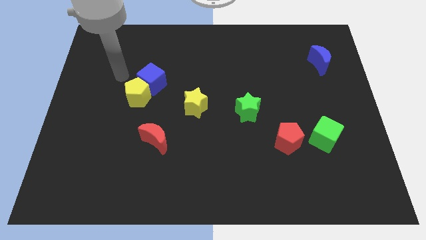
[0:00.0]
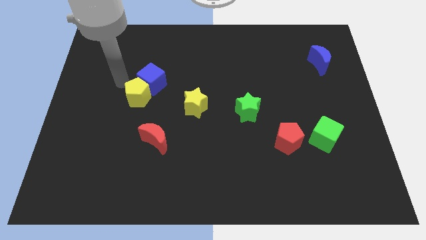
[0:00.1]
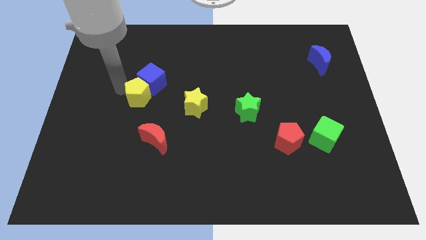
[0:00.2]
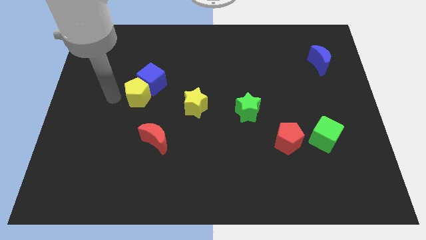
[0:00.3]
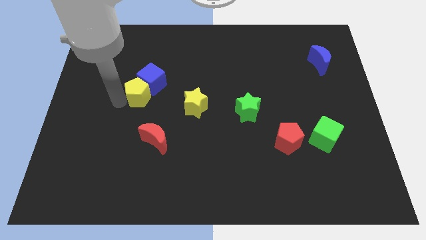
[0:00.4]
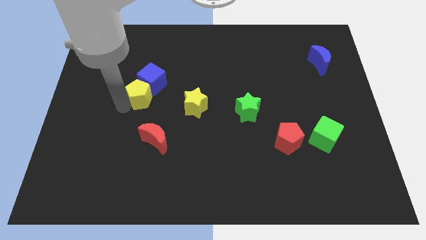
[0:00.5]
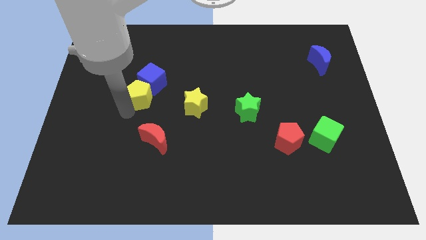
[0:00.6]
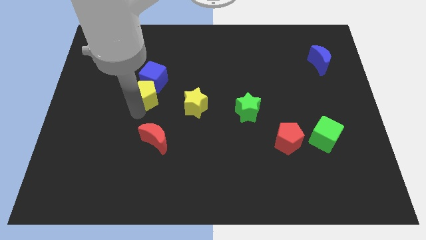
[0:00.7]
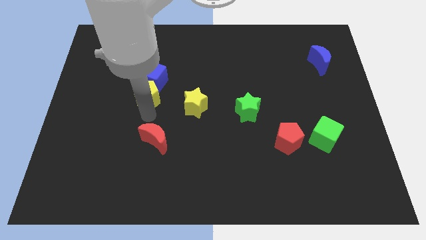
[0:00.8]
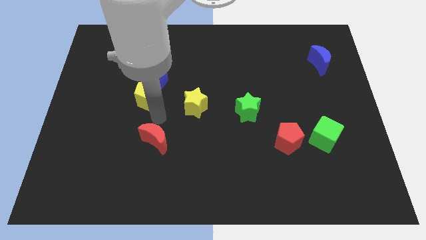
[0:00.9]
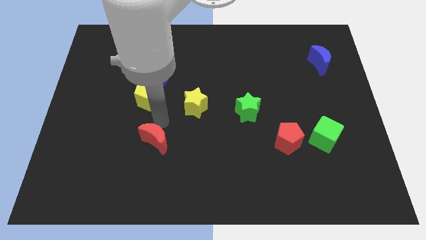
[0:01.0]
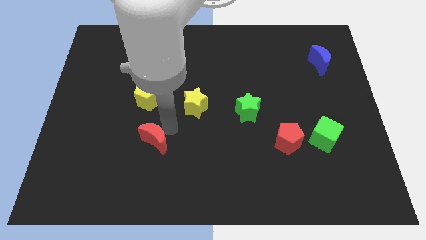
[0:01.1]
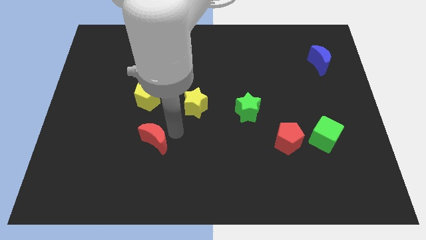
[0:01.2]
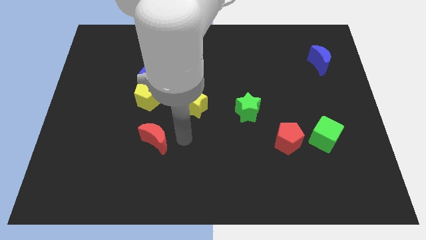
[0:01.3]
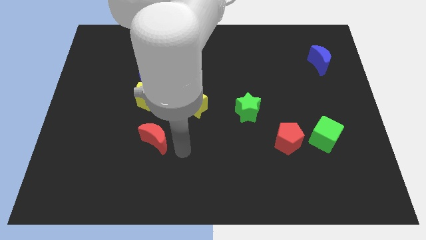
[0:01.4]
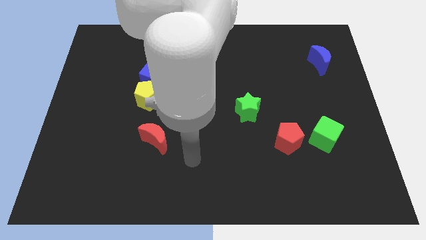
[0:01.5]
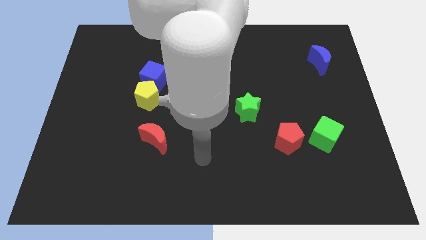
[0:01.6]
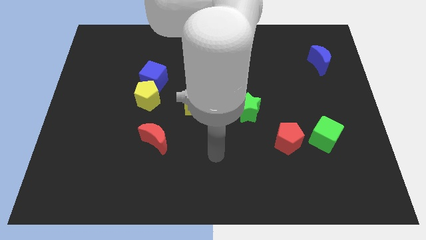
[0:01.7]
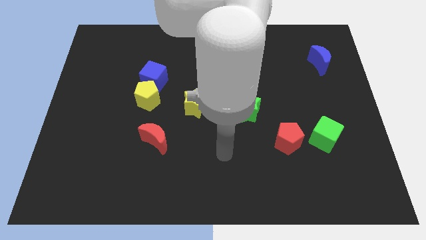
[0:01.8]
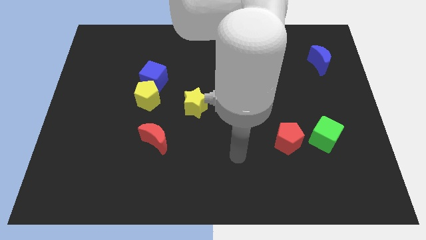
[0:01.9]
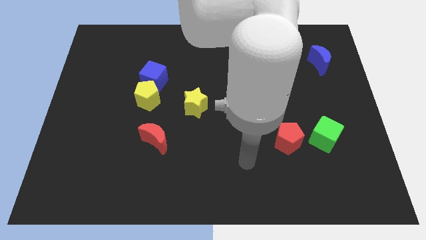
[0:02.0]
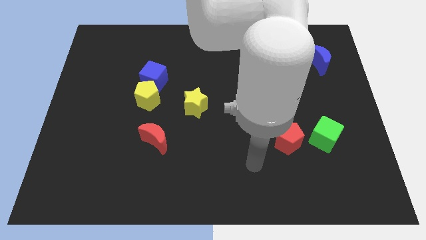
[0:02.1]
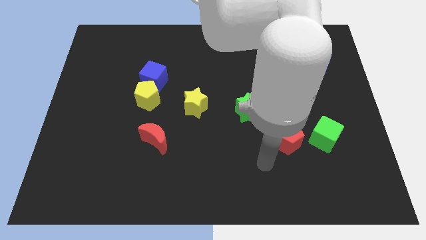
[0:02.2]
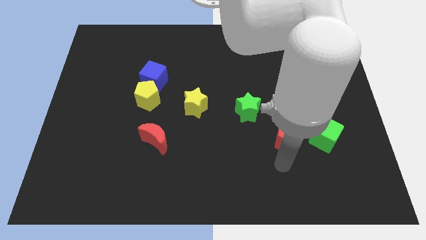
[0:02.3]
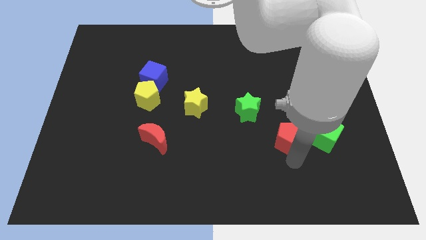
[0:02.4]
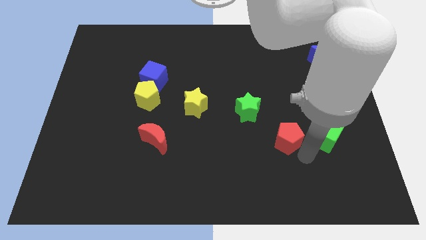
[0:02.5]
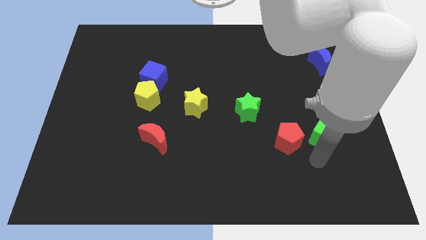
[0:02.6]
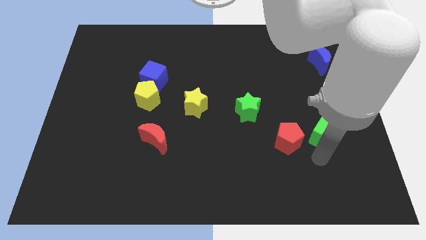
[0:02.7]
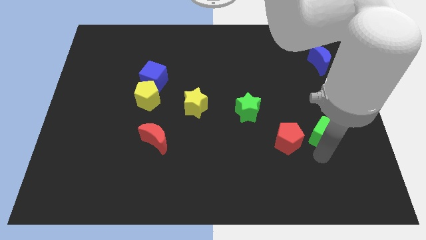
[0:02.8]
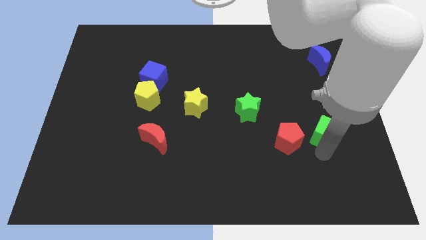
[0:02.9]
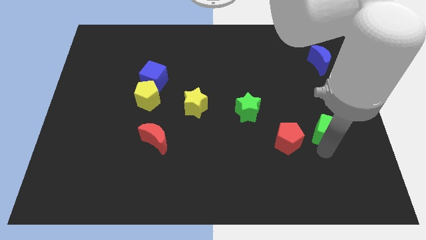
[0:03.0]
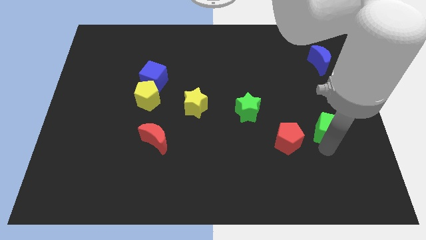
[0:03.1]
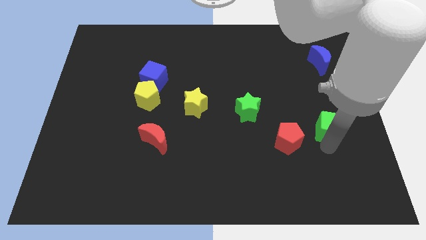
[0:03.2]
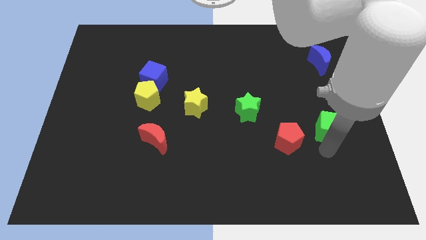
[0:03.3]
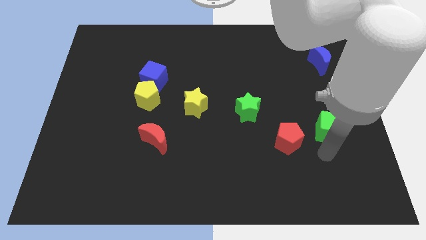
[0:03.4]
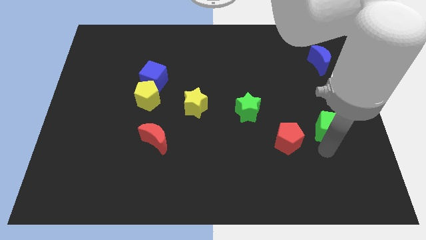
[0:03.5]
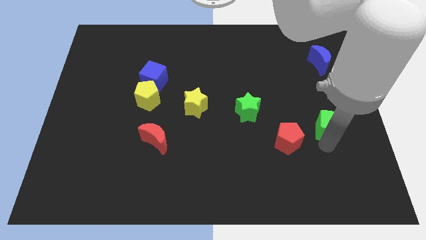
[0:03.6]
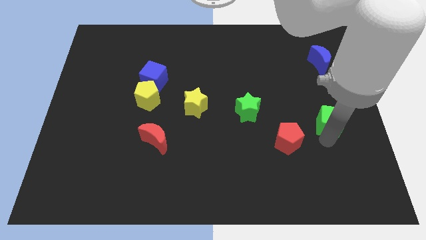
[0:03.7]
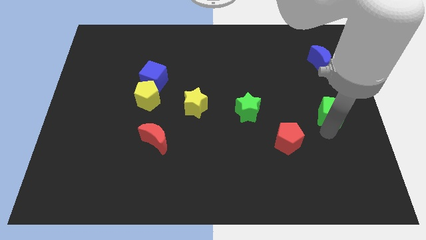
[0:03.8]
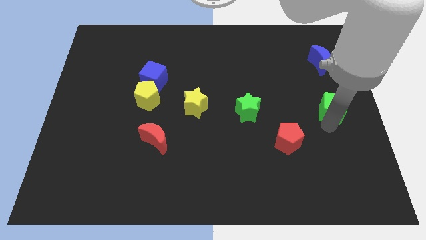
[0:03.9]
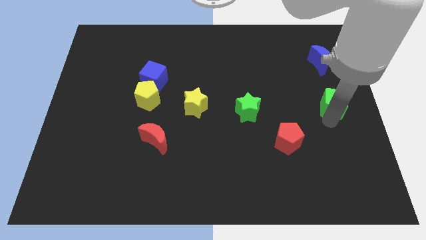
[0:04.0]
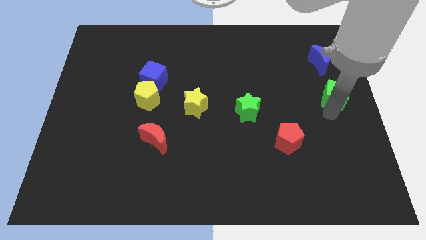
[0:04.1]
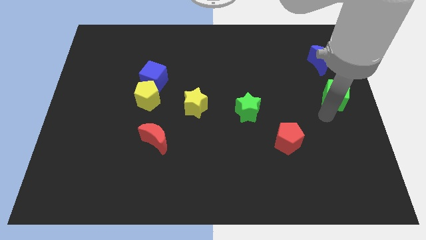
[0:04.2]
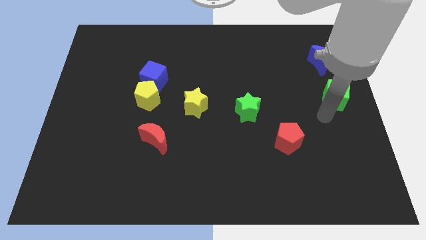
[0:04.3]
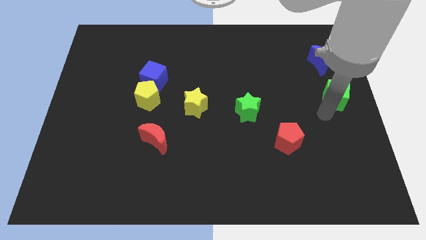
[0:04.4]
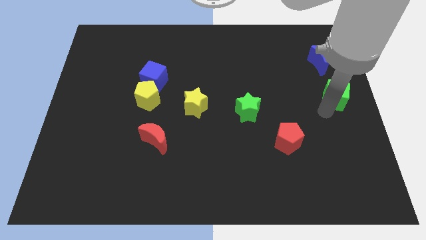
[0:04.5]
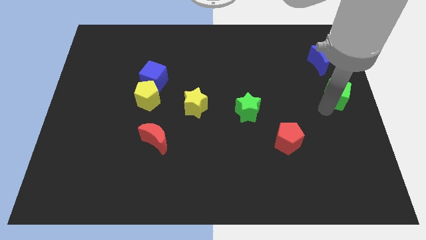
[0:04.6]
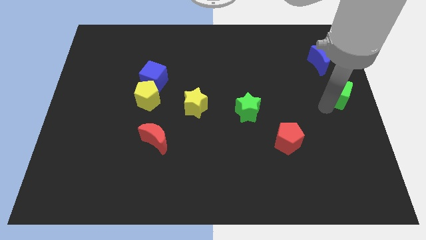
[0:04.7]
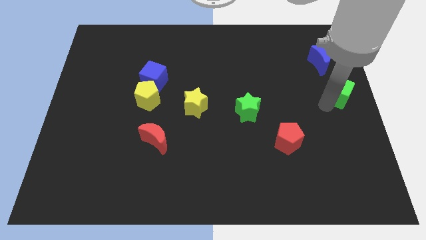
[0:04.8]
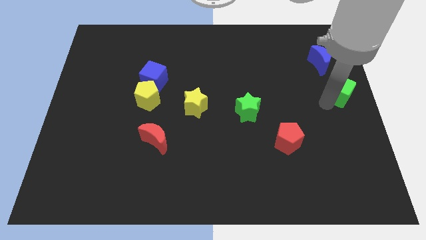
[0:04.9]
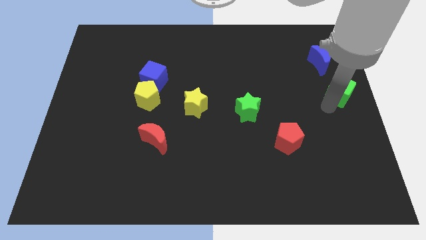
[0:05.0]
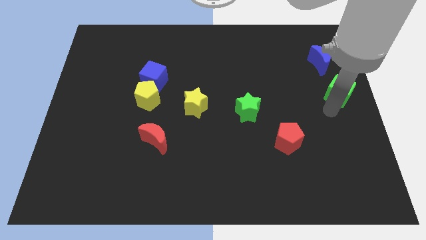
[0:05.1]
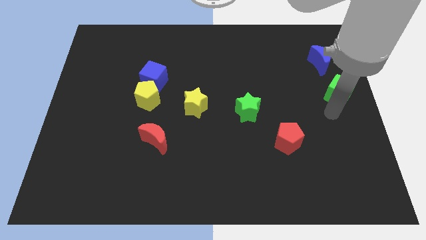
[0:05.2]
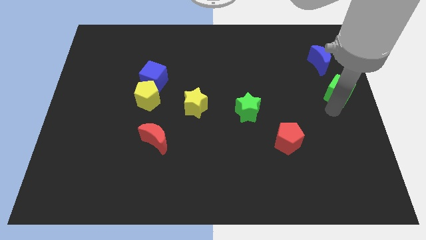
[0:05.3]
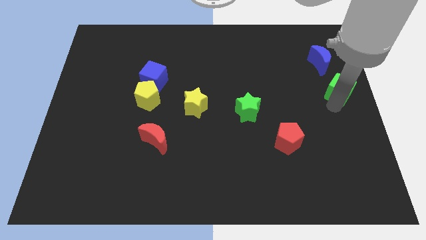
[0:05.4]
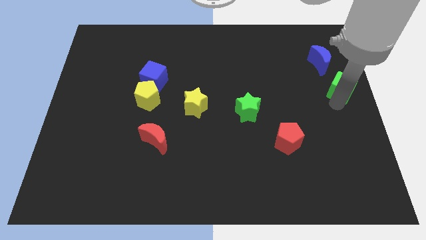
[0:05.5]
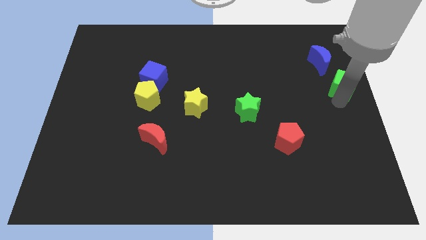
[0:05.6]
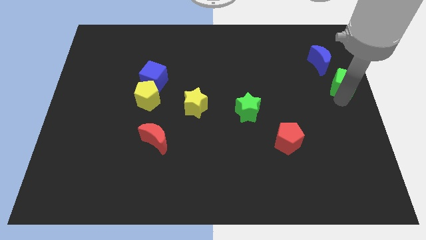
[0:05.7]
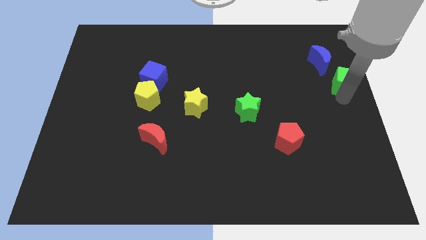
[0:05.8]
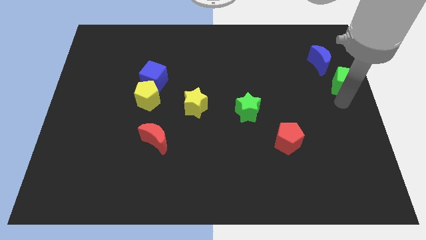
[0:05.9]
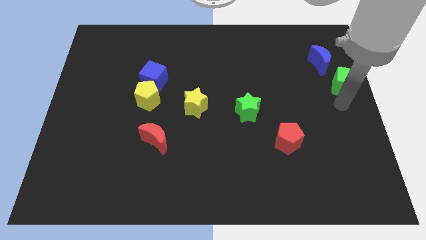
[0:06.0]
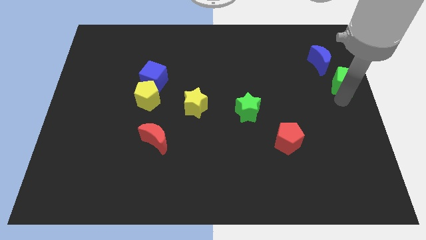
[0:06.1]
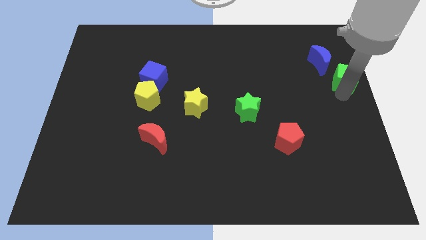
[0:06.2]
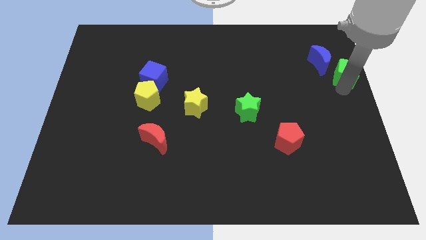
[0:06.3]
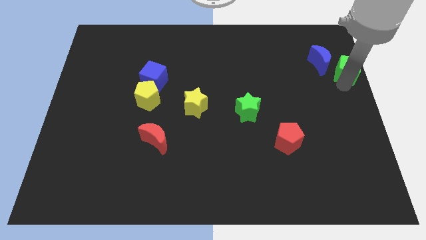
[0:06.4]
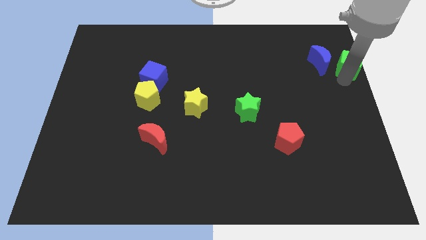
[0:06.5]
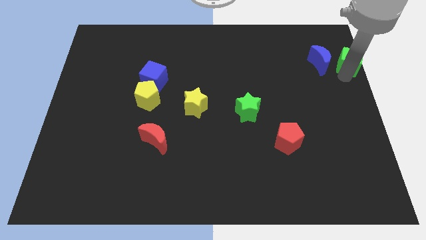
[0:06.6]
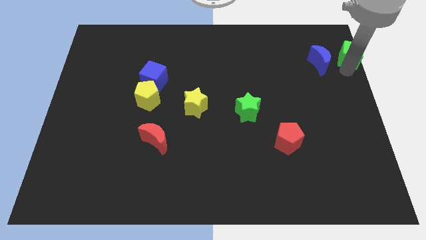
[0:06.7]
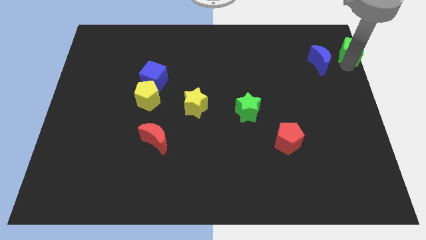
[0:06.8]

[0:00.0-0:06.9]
push the green cube to the top right of the board
